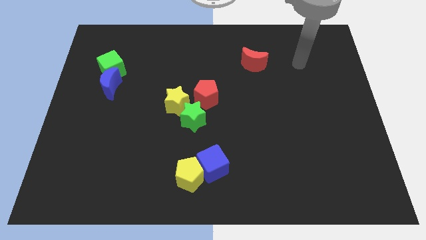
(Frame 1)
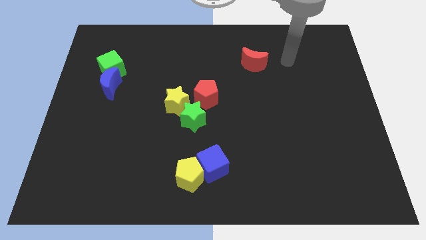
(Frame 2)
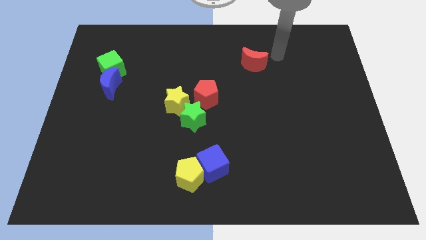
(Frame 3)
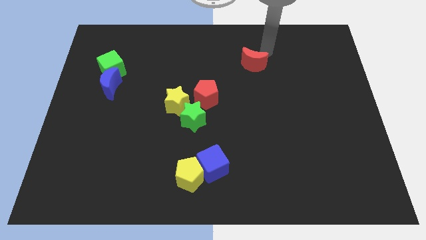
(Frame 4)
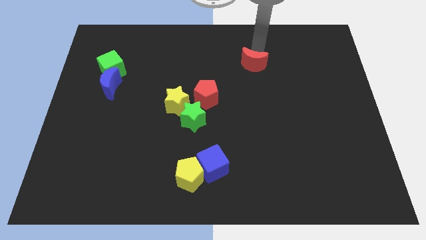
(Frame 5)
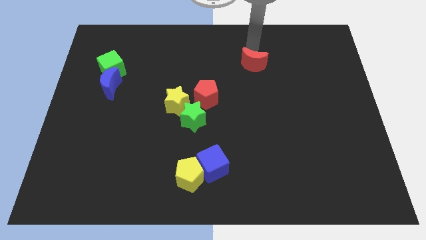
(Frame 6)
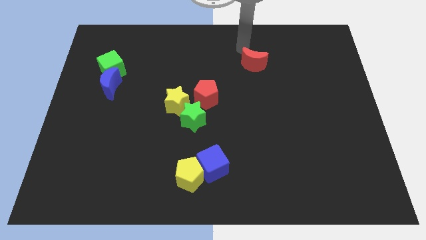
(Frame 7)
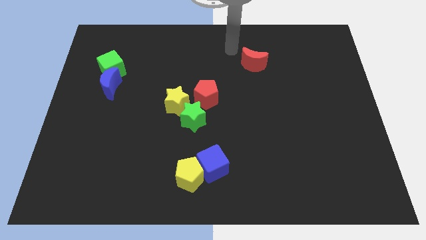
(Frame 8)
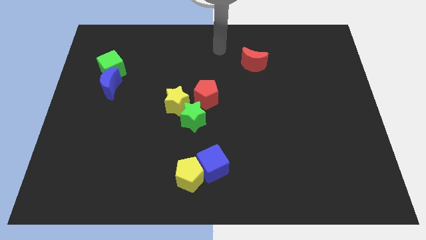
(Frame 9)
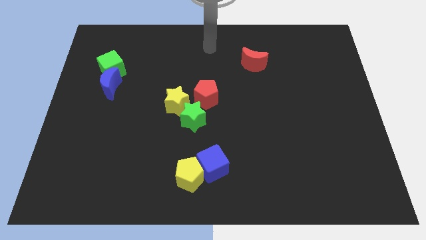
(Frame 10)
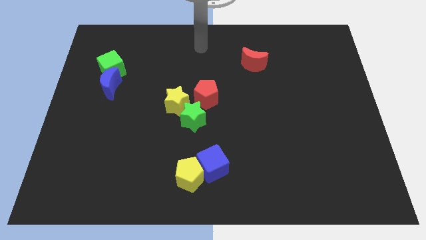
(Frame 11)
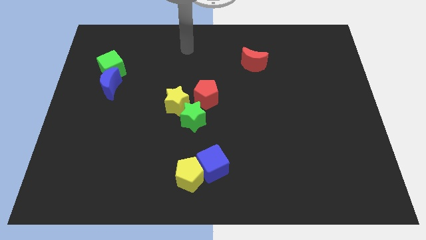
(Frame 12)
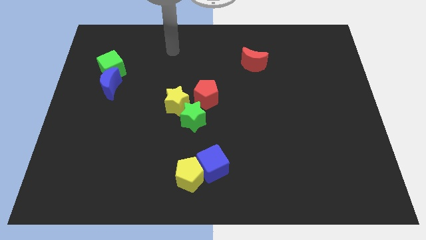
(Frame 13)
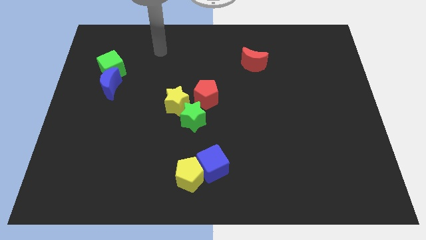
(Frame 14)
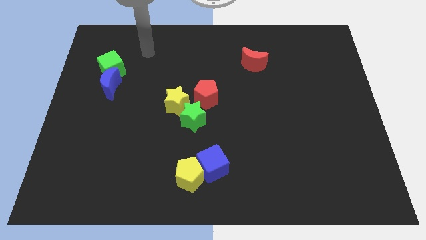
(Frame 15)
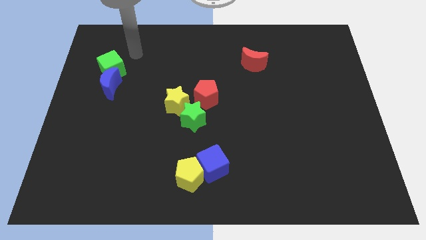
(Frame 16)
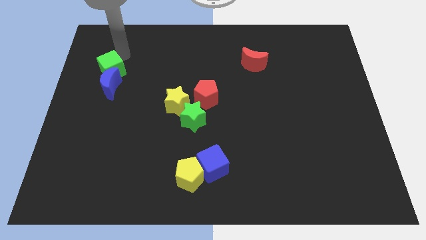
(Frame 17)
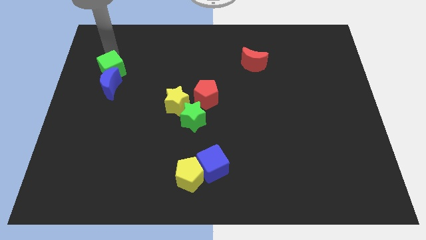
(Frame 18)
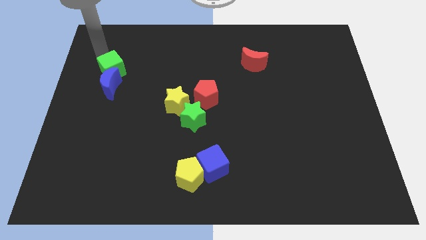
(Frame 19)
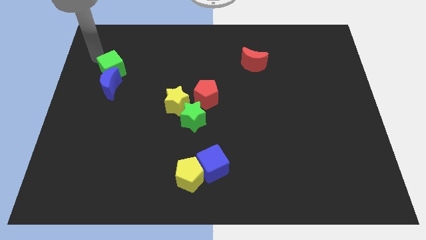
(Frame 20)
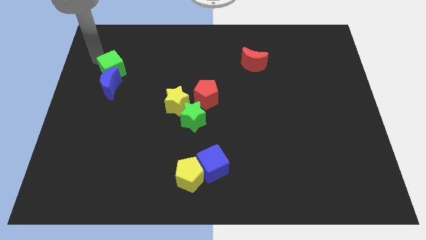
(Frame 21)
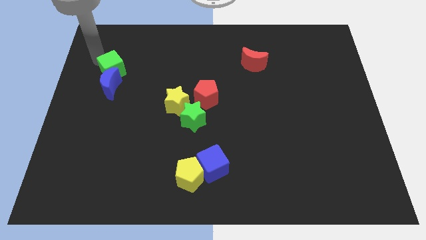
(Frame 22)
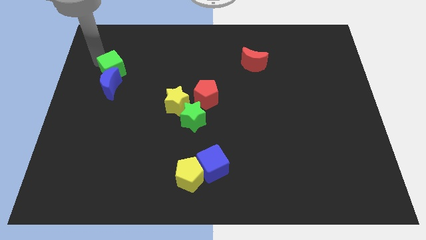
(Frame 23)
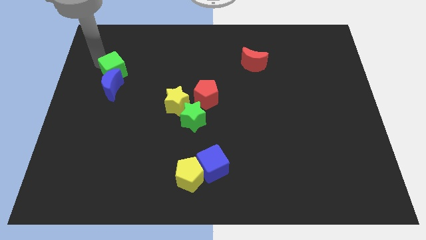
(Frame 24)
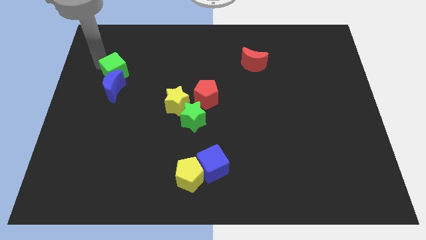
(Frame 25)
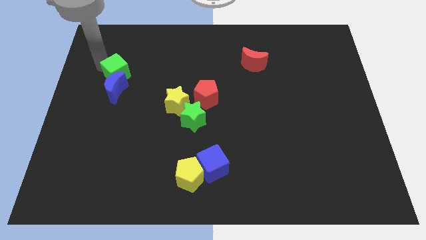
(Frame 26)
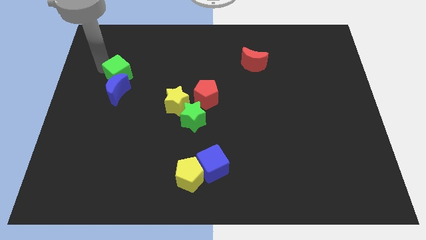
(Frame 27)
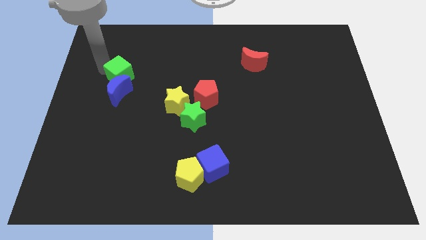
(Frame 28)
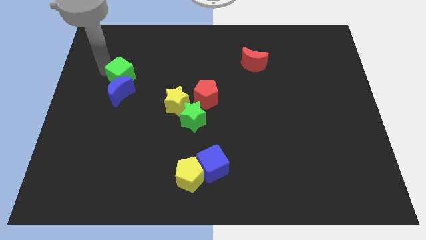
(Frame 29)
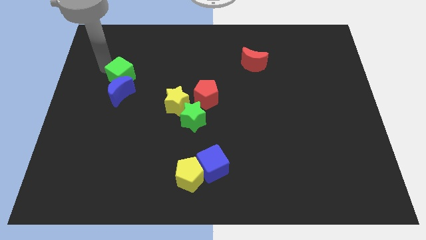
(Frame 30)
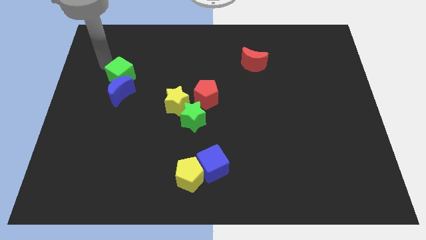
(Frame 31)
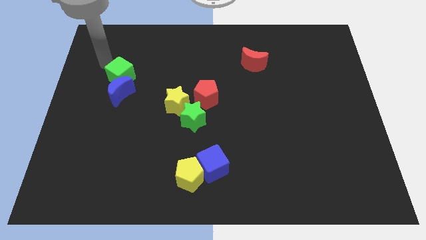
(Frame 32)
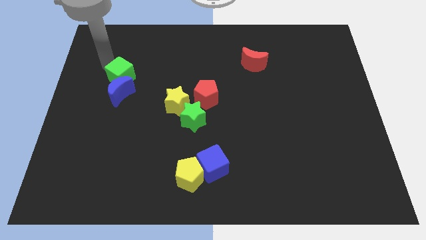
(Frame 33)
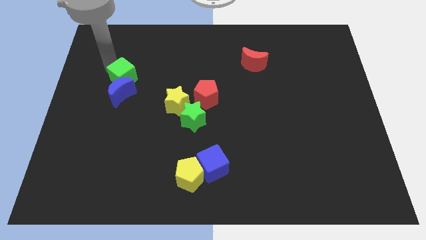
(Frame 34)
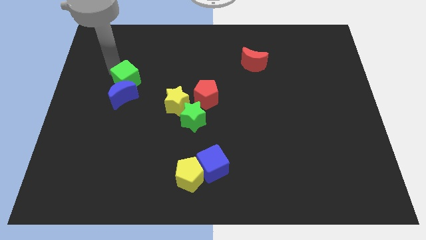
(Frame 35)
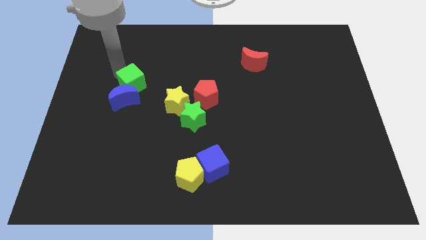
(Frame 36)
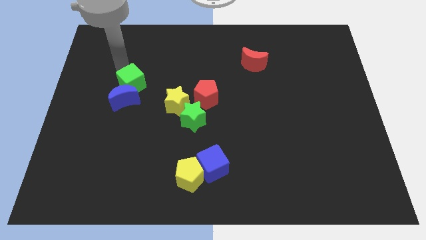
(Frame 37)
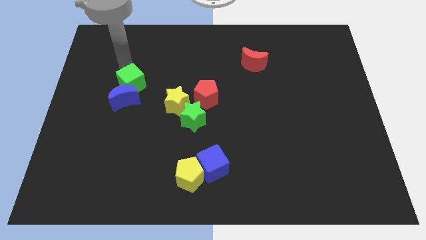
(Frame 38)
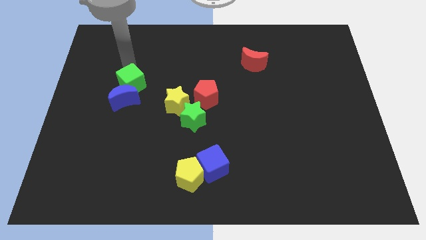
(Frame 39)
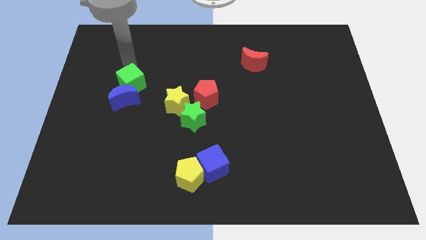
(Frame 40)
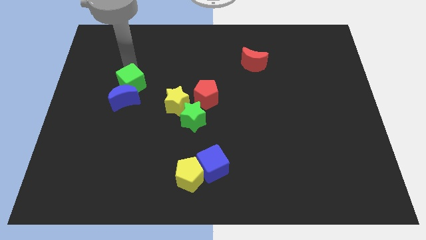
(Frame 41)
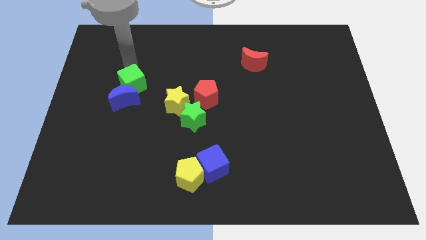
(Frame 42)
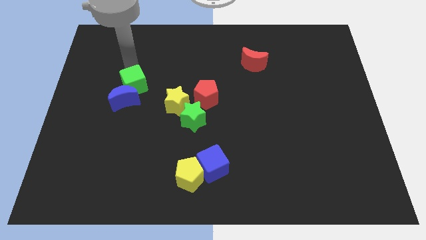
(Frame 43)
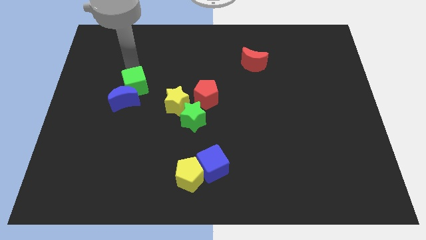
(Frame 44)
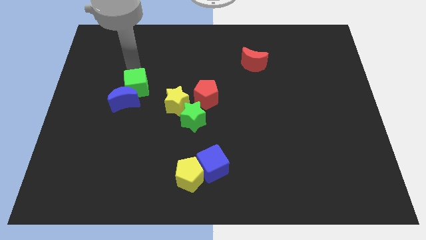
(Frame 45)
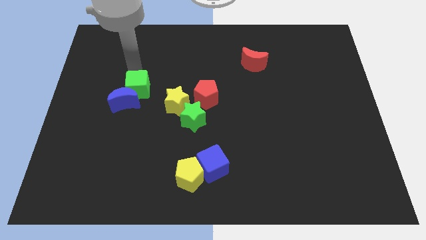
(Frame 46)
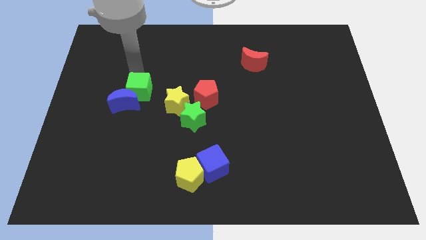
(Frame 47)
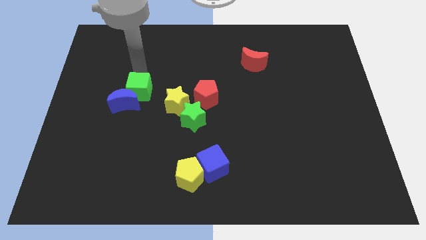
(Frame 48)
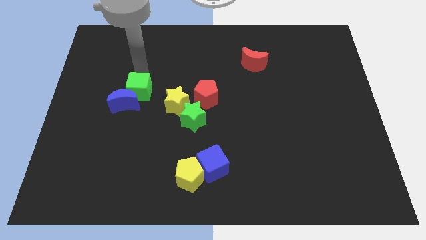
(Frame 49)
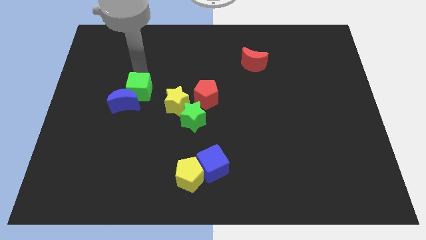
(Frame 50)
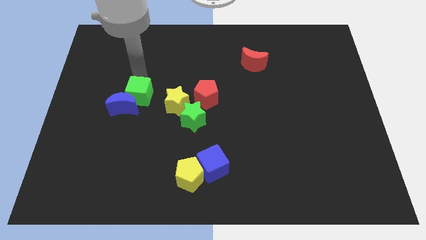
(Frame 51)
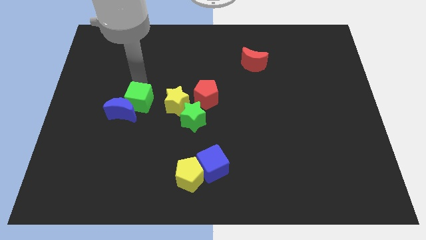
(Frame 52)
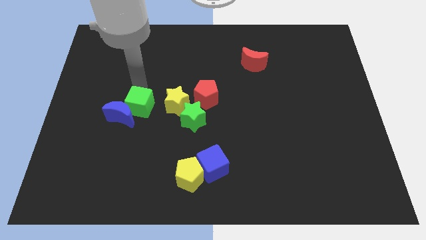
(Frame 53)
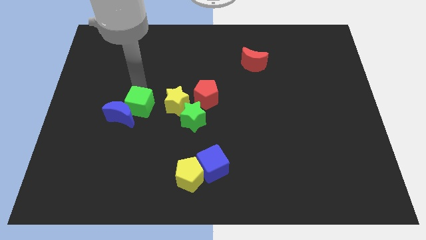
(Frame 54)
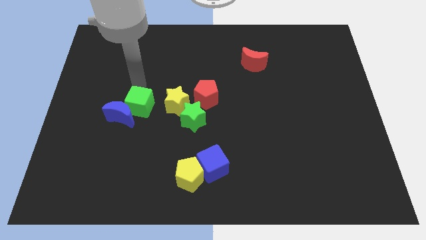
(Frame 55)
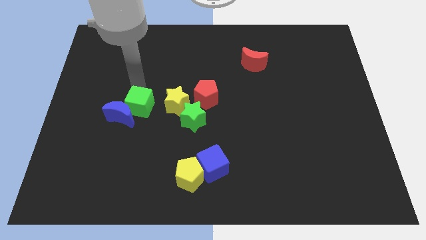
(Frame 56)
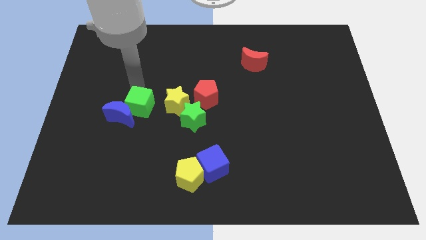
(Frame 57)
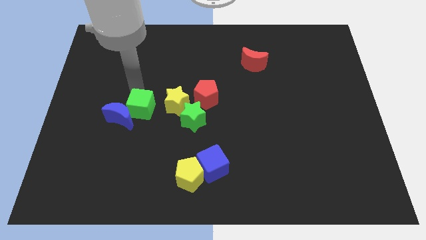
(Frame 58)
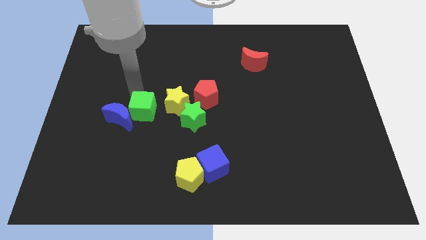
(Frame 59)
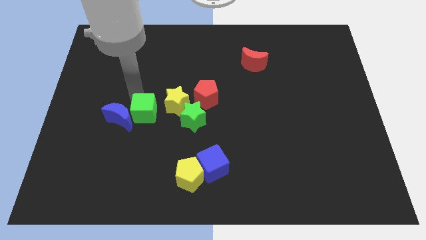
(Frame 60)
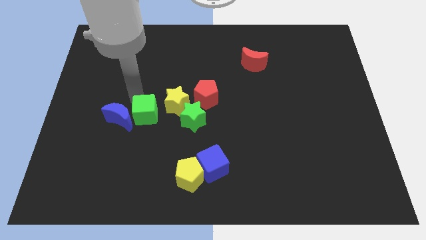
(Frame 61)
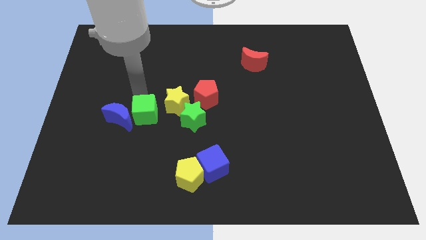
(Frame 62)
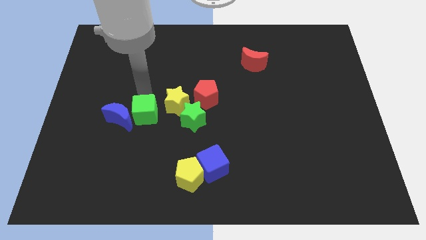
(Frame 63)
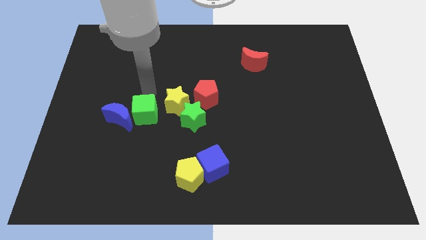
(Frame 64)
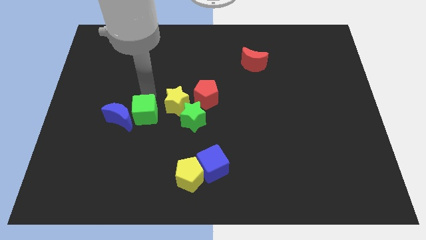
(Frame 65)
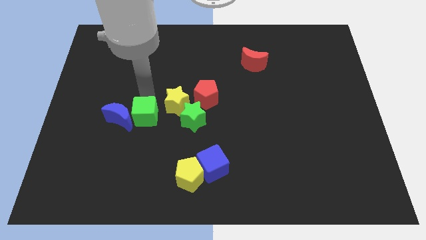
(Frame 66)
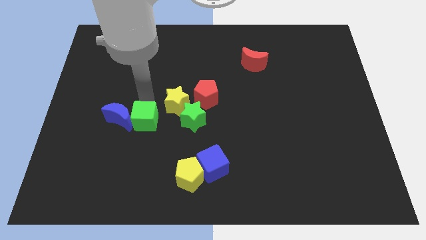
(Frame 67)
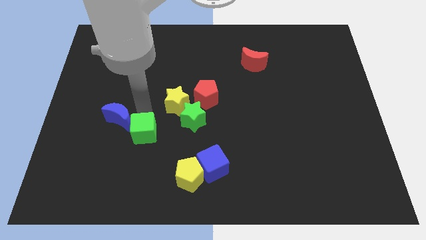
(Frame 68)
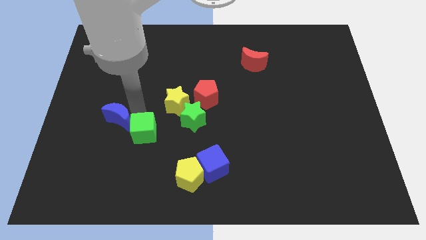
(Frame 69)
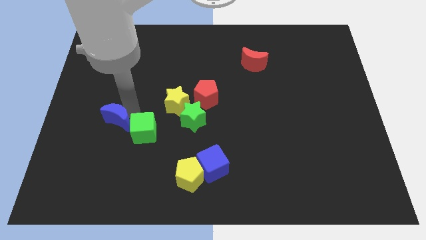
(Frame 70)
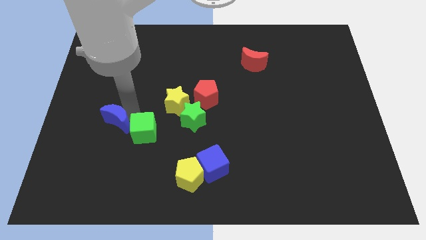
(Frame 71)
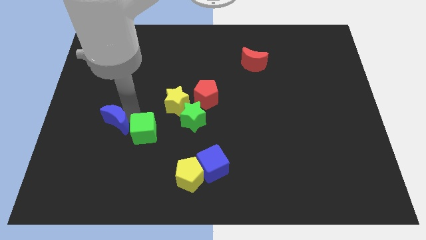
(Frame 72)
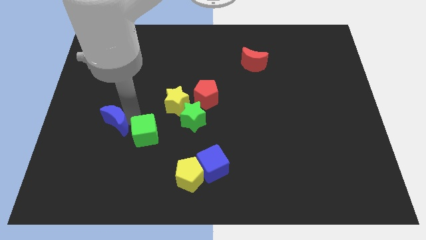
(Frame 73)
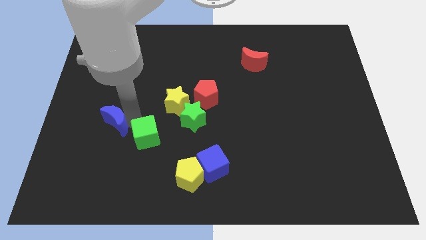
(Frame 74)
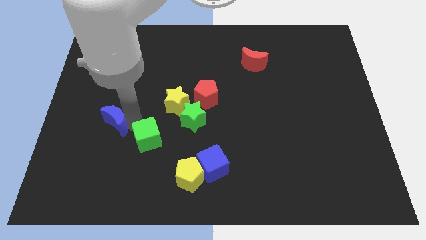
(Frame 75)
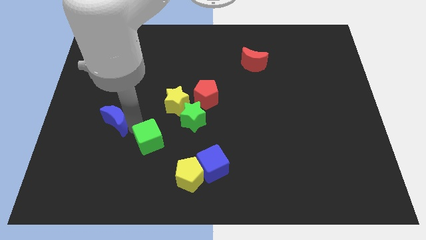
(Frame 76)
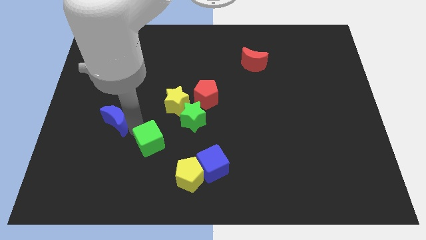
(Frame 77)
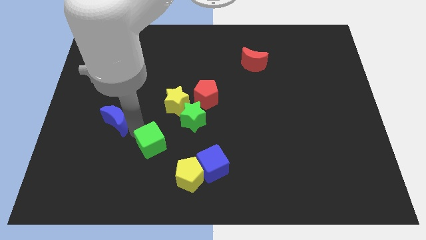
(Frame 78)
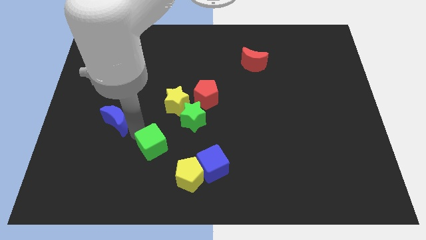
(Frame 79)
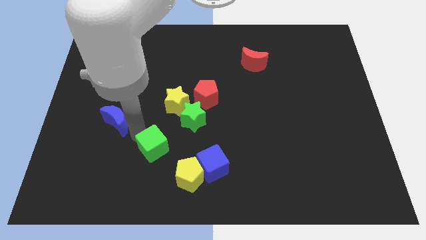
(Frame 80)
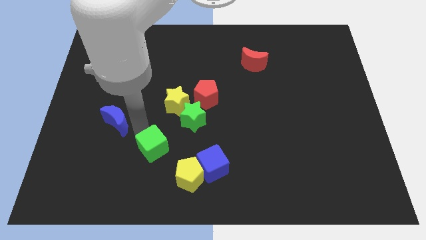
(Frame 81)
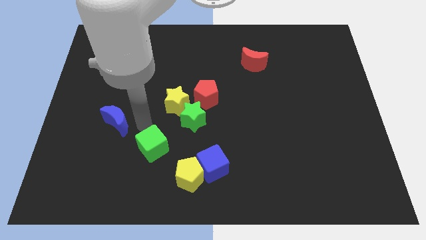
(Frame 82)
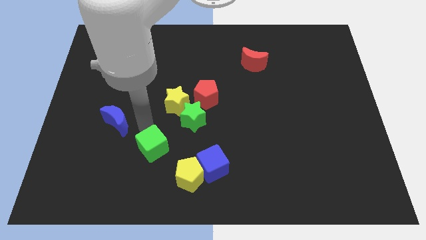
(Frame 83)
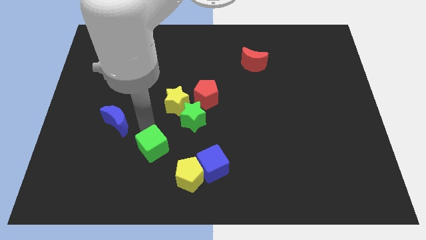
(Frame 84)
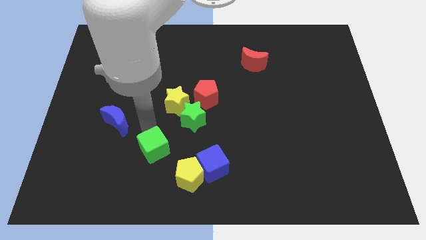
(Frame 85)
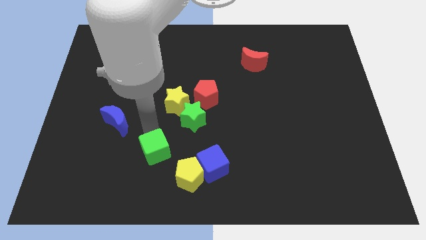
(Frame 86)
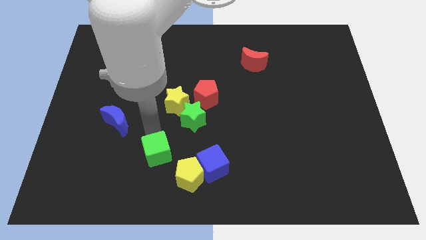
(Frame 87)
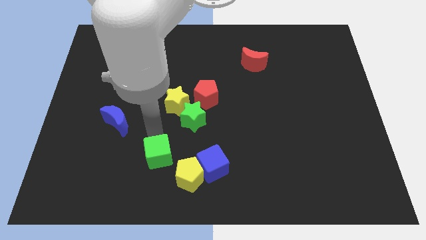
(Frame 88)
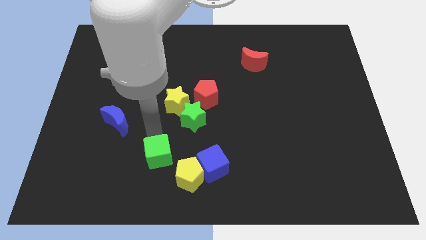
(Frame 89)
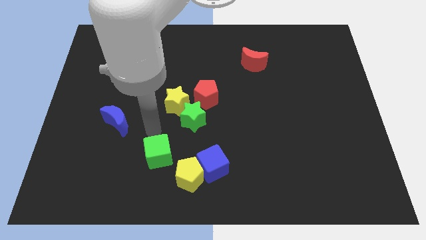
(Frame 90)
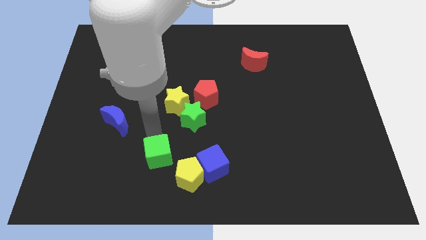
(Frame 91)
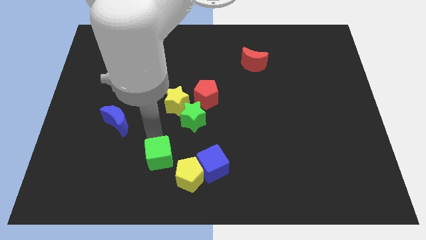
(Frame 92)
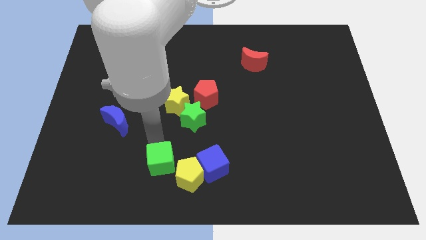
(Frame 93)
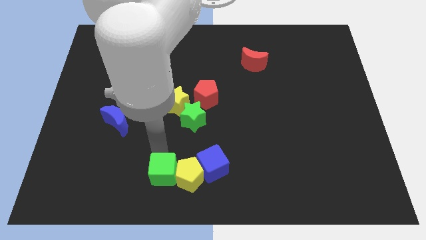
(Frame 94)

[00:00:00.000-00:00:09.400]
move the green cube to the bottom side
